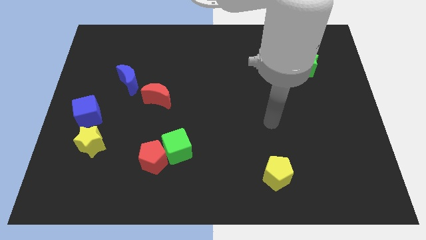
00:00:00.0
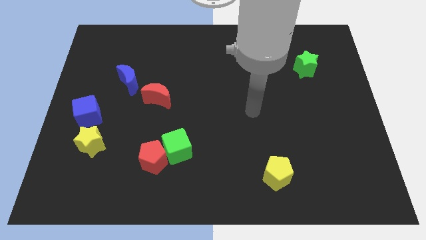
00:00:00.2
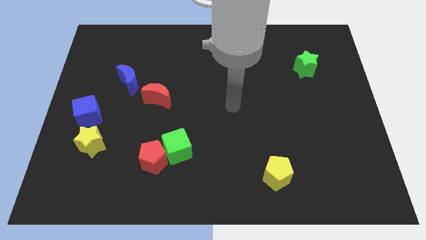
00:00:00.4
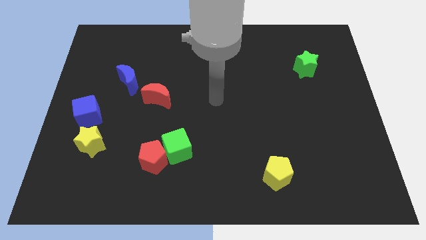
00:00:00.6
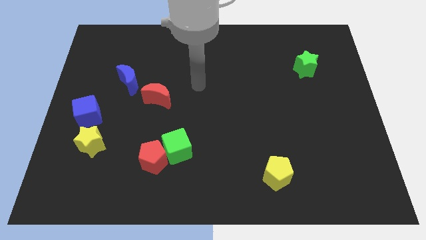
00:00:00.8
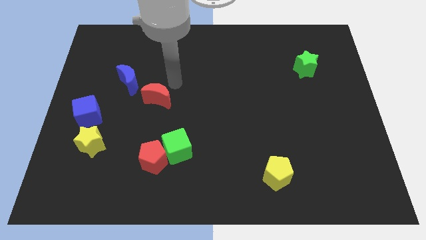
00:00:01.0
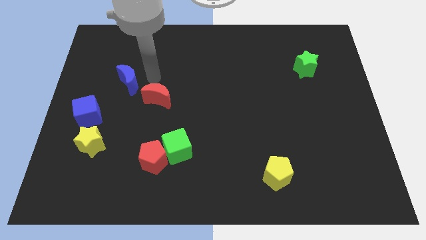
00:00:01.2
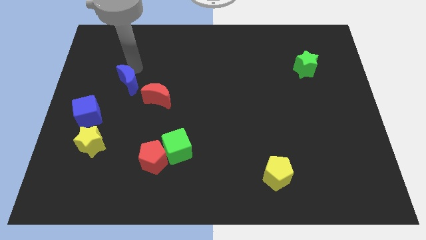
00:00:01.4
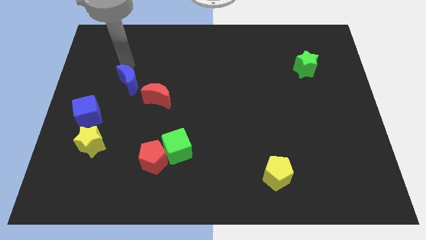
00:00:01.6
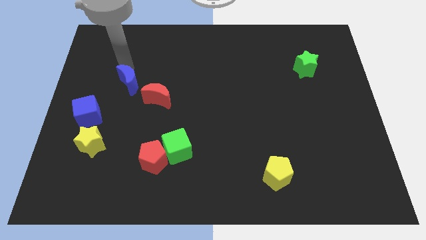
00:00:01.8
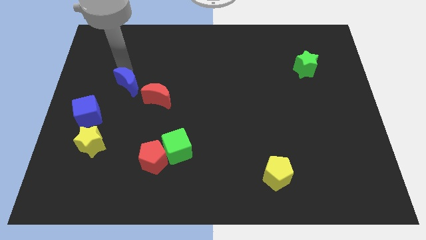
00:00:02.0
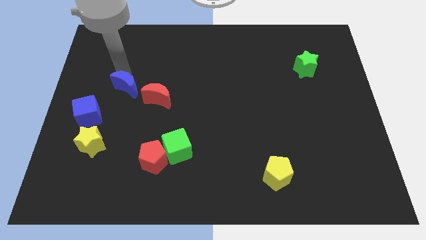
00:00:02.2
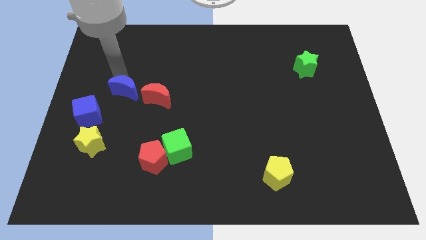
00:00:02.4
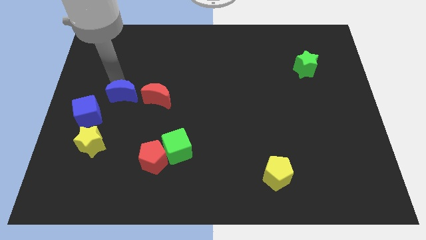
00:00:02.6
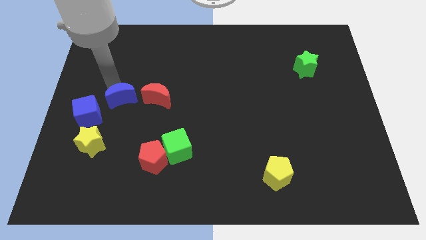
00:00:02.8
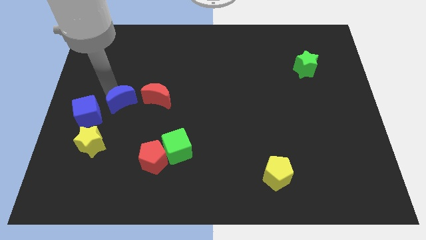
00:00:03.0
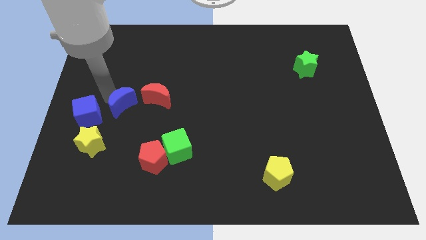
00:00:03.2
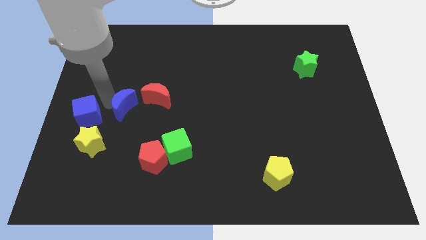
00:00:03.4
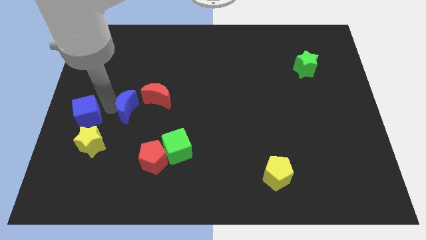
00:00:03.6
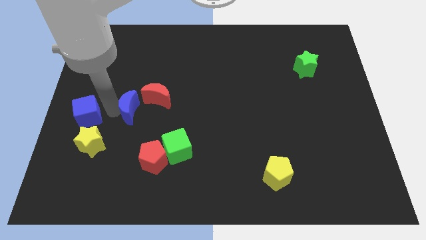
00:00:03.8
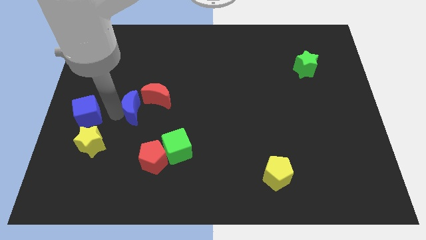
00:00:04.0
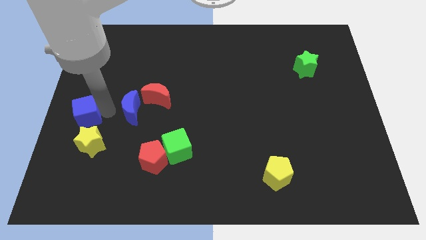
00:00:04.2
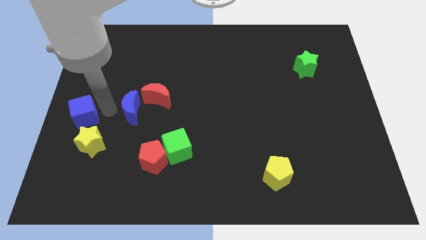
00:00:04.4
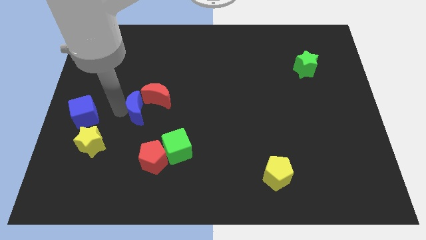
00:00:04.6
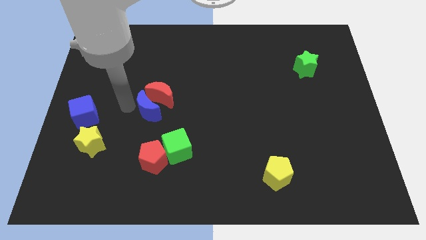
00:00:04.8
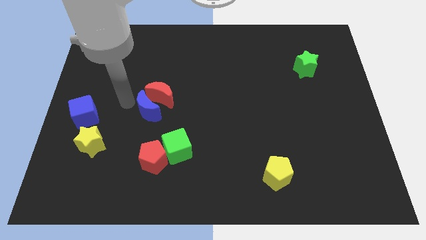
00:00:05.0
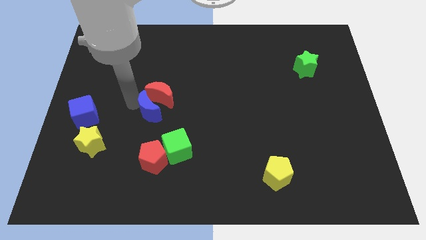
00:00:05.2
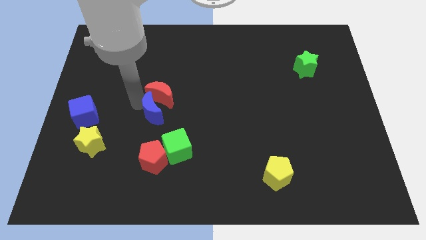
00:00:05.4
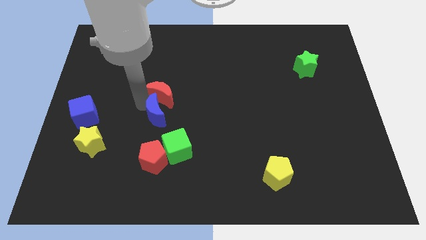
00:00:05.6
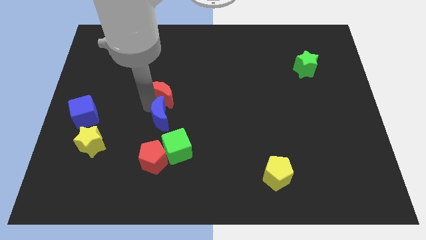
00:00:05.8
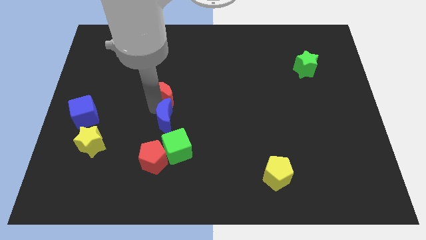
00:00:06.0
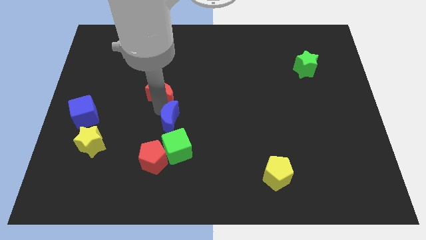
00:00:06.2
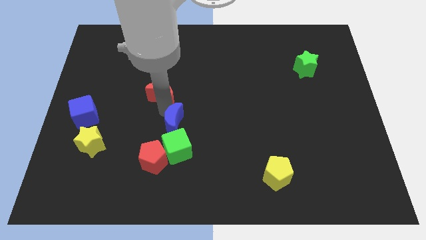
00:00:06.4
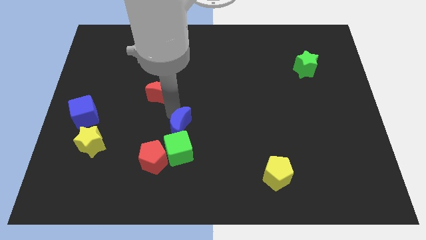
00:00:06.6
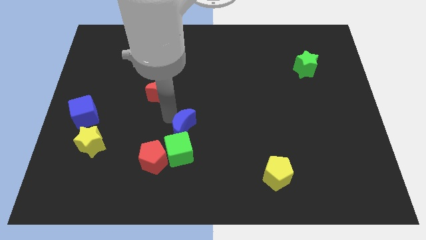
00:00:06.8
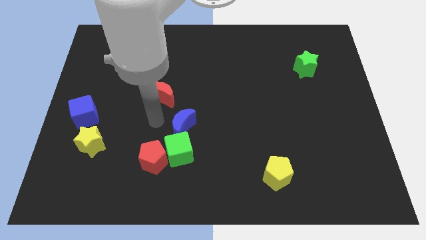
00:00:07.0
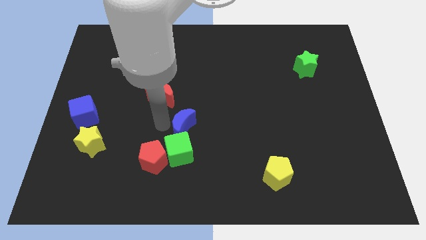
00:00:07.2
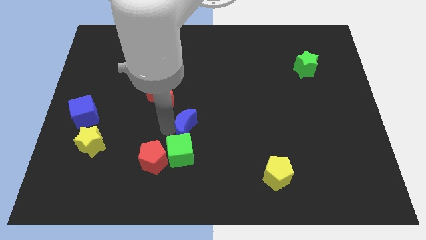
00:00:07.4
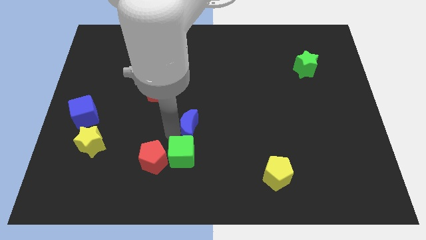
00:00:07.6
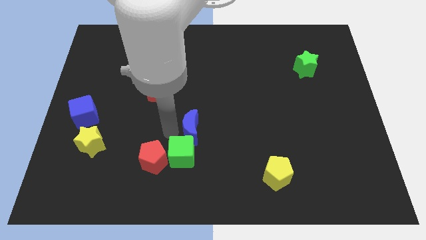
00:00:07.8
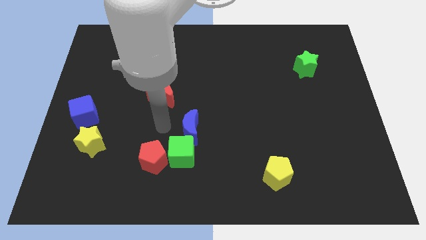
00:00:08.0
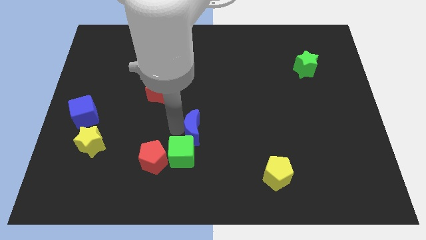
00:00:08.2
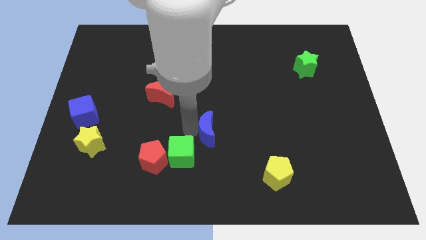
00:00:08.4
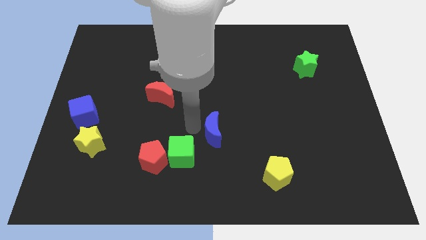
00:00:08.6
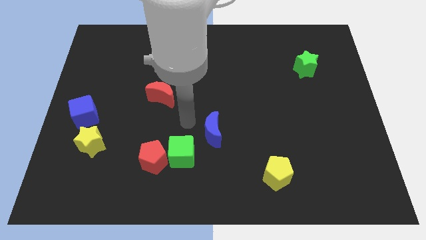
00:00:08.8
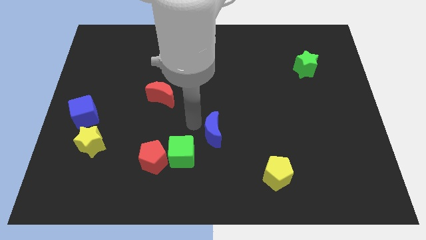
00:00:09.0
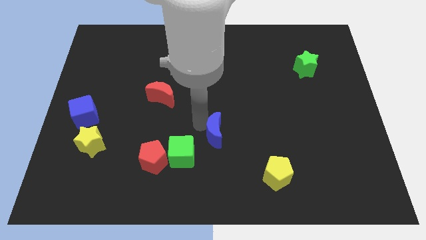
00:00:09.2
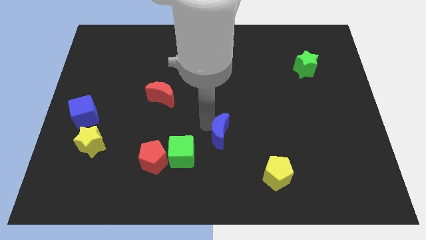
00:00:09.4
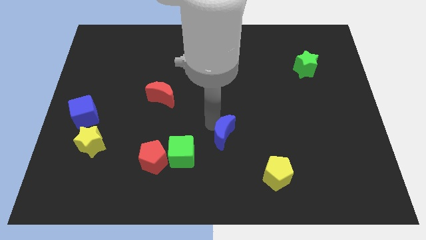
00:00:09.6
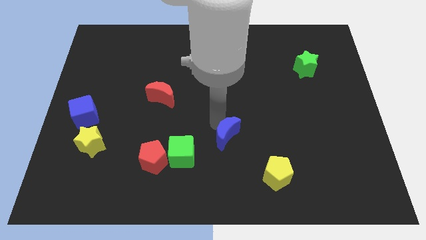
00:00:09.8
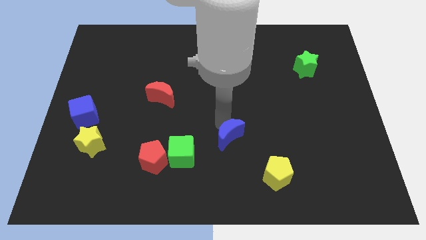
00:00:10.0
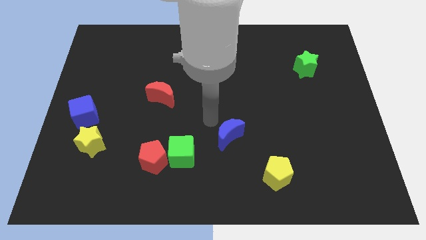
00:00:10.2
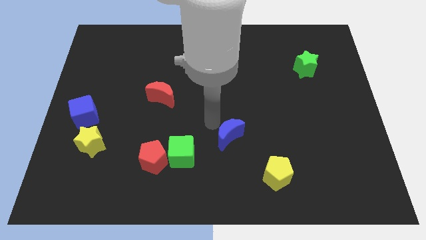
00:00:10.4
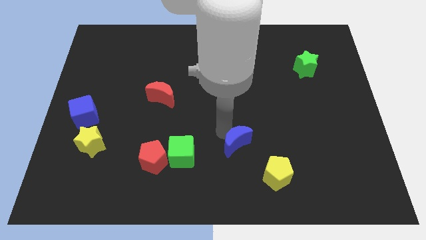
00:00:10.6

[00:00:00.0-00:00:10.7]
put the blue moon to the top left side of the yellow pentagon

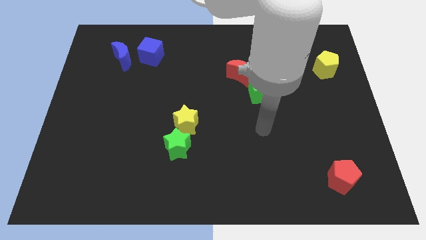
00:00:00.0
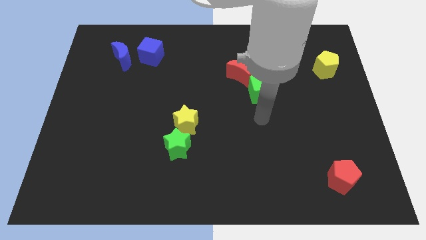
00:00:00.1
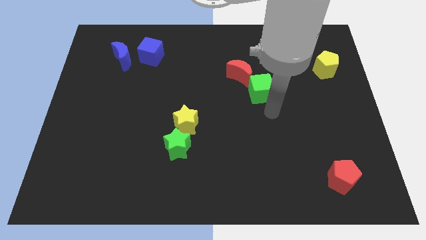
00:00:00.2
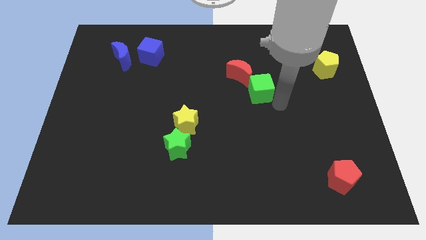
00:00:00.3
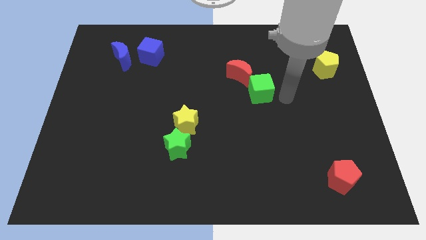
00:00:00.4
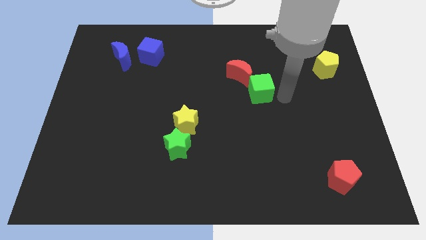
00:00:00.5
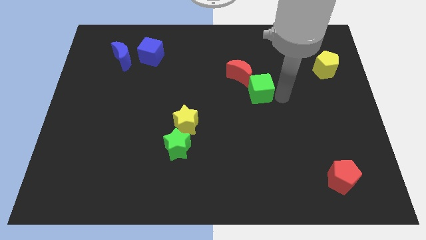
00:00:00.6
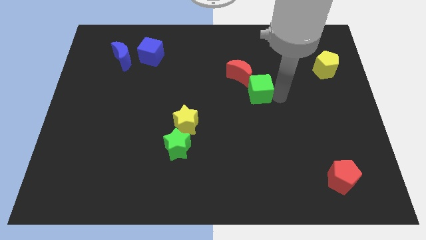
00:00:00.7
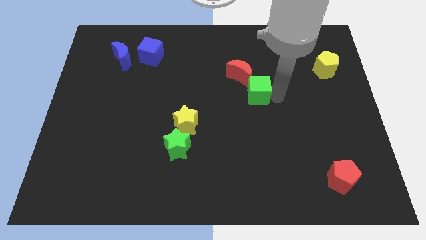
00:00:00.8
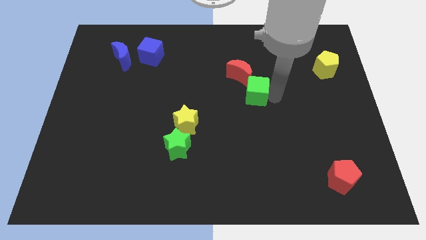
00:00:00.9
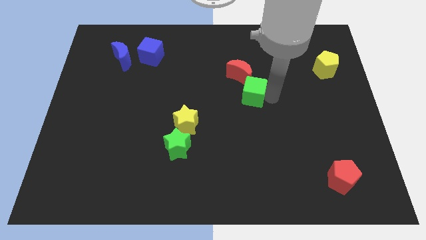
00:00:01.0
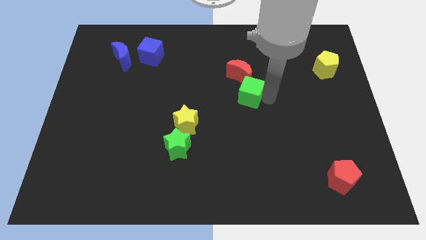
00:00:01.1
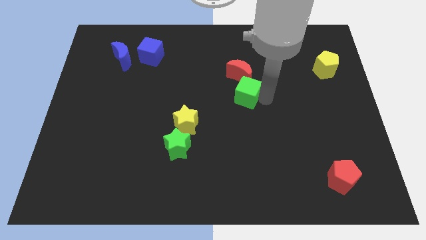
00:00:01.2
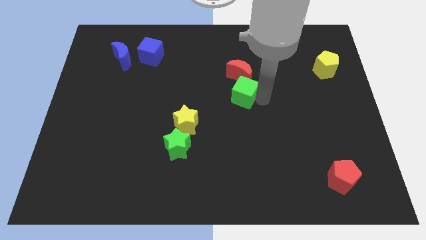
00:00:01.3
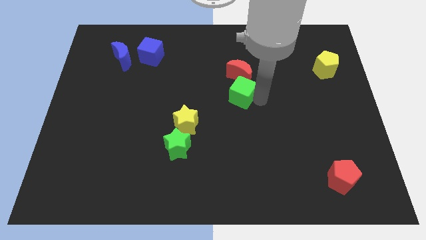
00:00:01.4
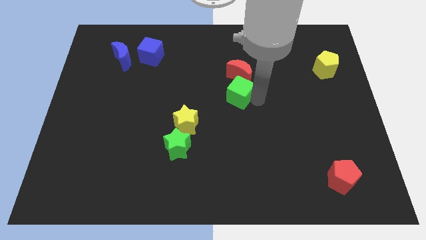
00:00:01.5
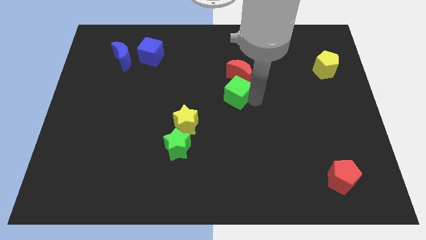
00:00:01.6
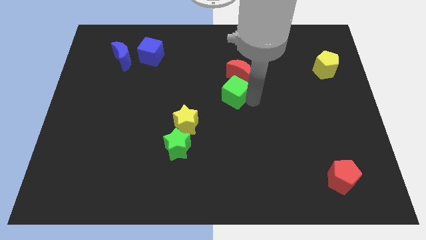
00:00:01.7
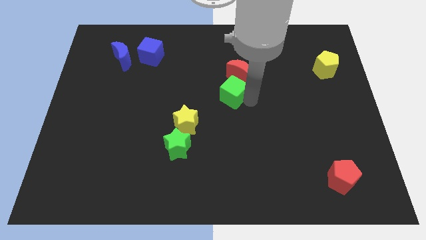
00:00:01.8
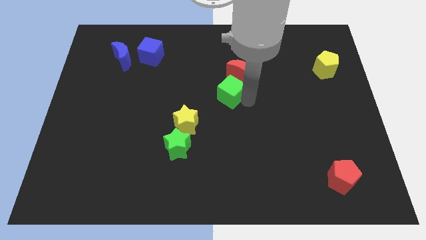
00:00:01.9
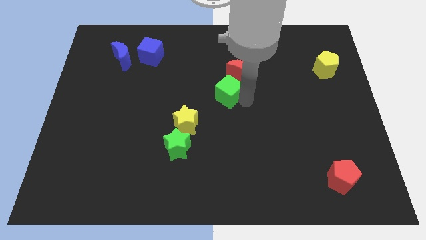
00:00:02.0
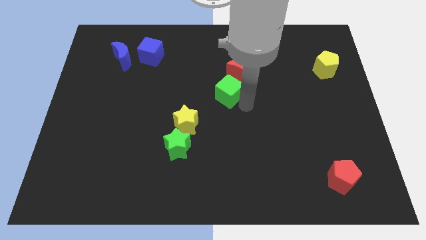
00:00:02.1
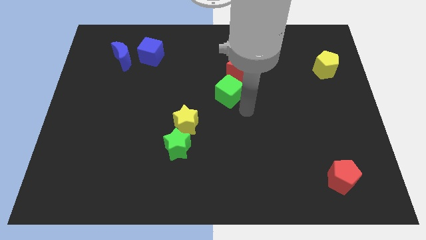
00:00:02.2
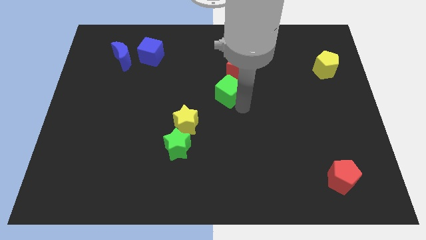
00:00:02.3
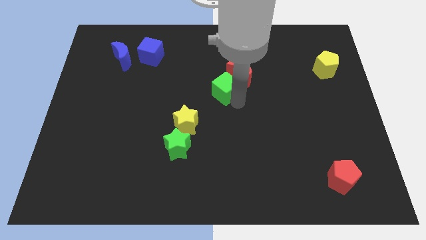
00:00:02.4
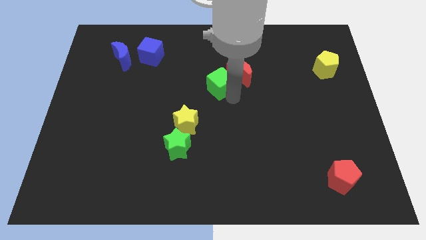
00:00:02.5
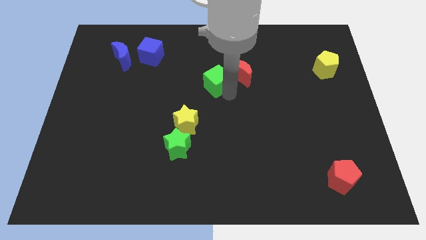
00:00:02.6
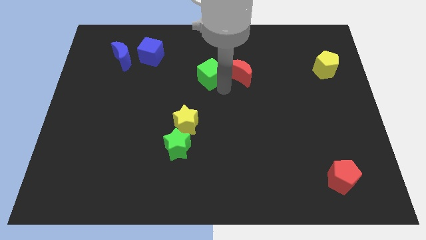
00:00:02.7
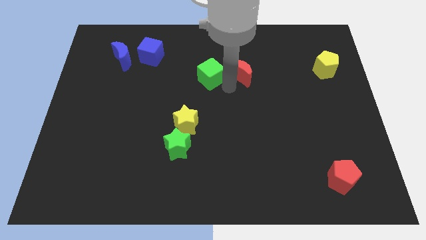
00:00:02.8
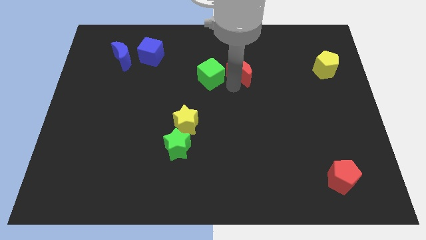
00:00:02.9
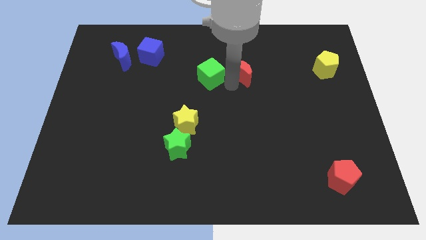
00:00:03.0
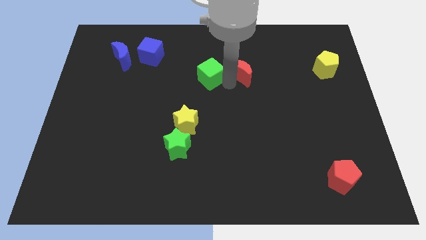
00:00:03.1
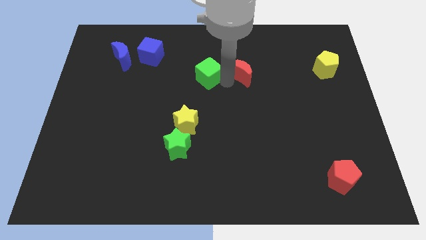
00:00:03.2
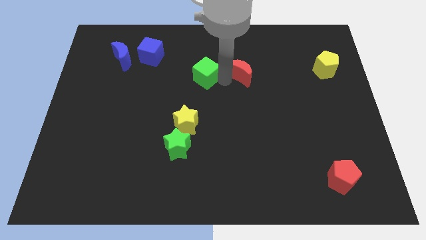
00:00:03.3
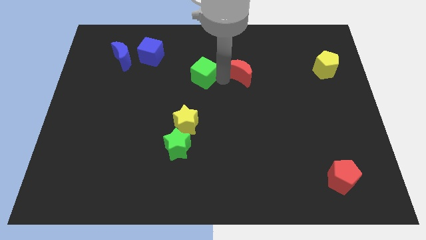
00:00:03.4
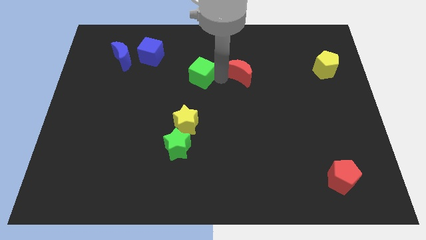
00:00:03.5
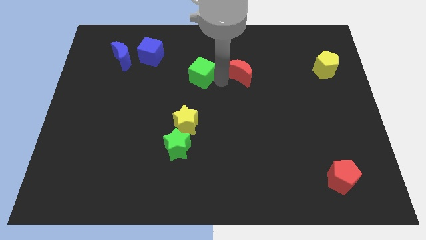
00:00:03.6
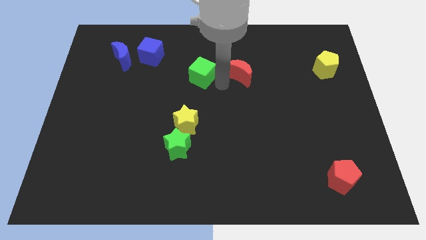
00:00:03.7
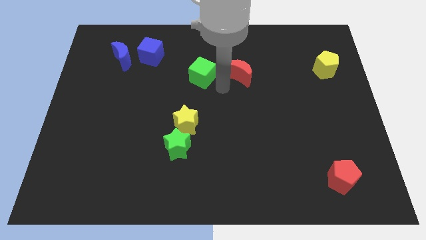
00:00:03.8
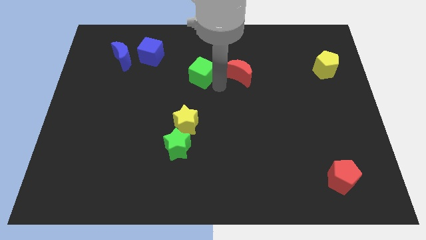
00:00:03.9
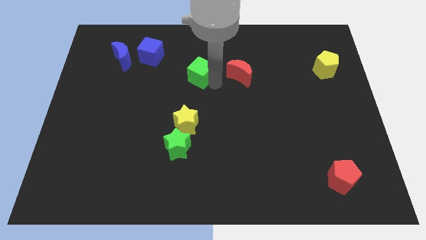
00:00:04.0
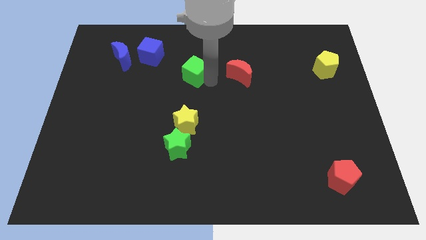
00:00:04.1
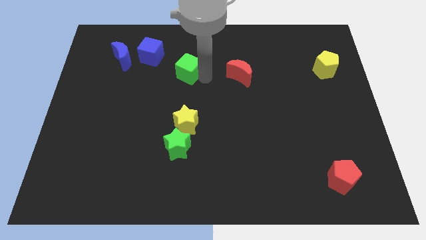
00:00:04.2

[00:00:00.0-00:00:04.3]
move the green cube diagonally down and to the right of the blue cube
